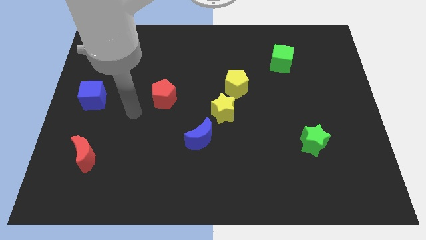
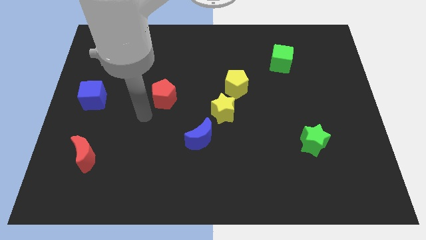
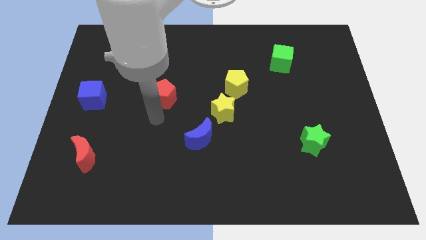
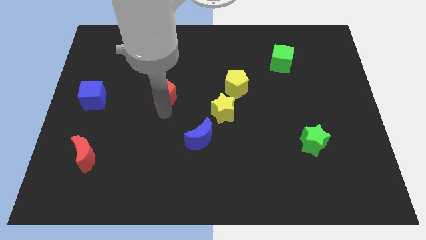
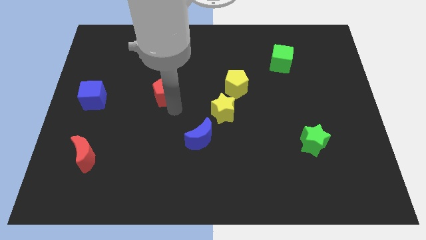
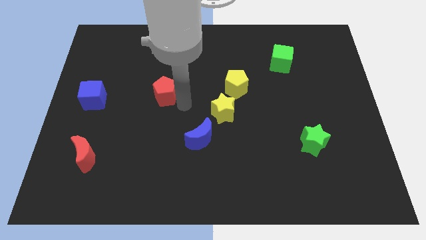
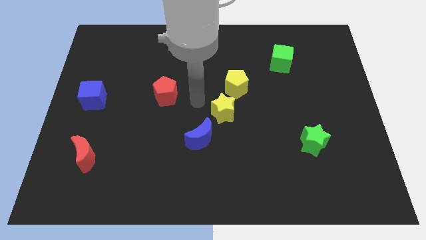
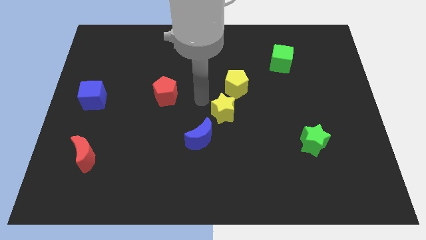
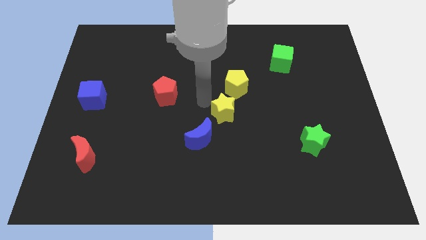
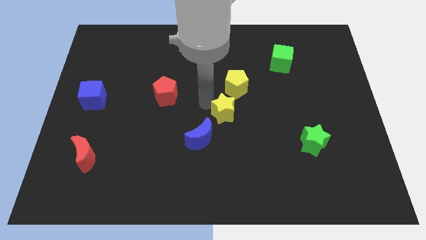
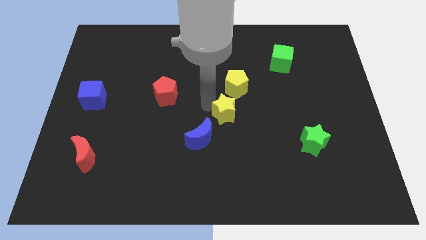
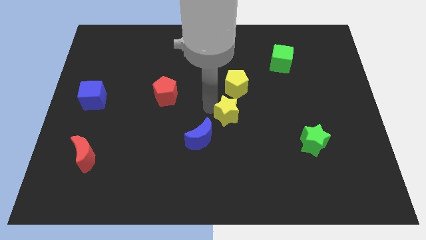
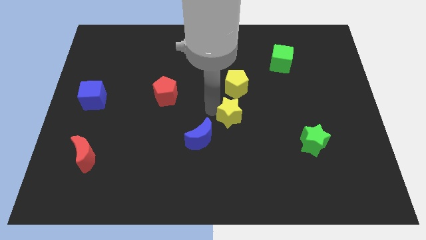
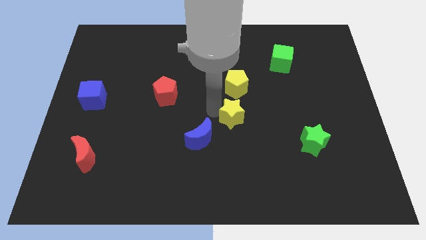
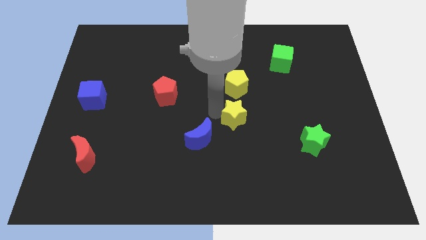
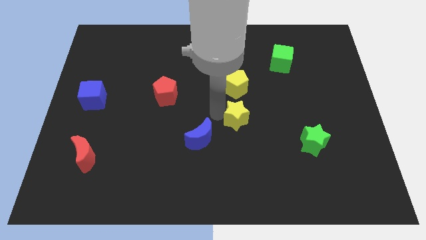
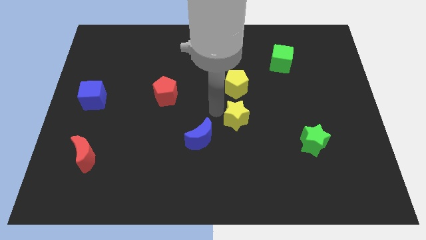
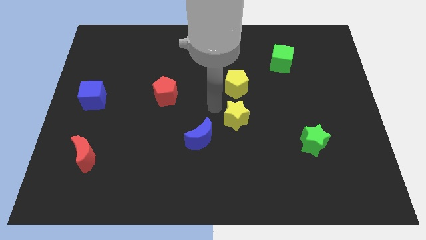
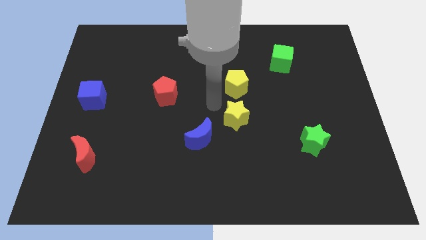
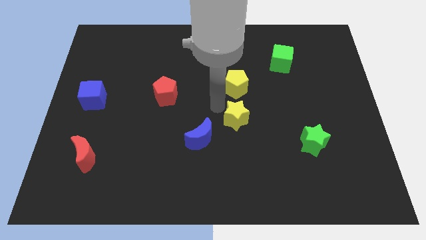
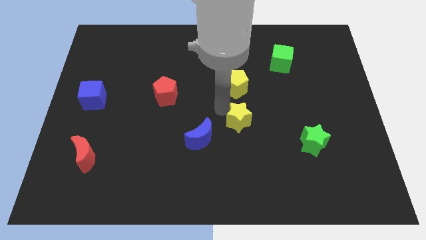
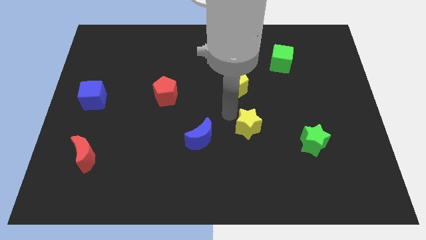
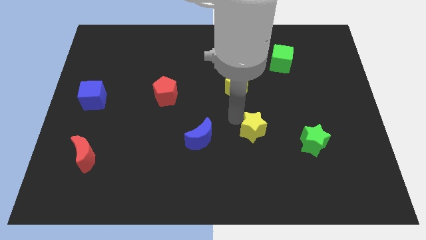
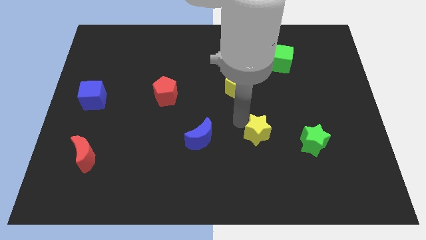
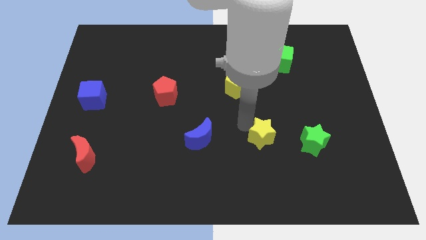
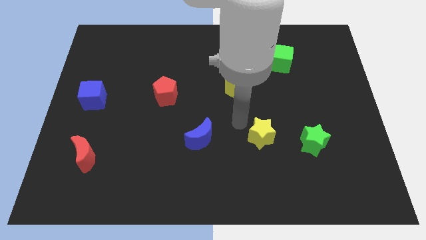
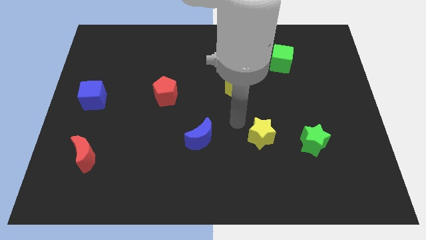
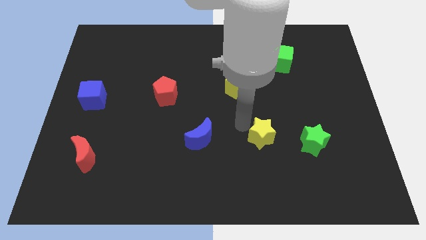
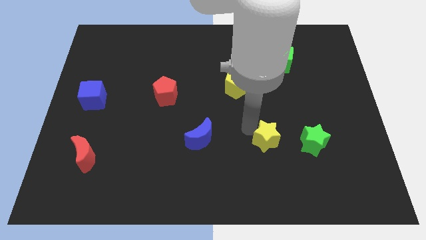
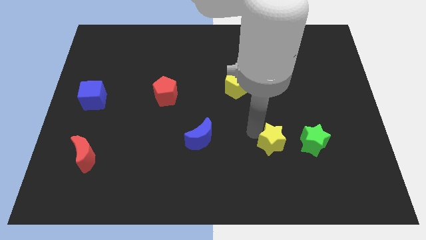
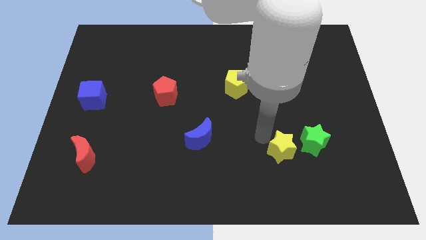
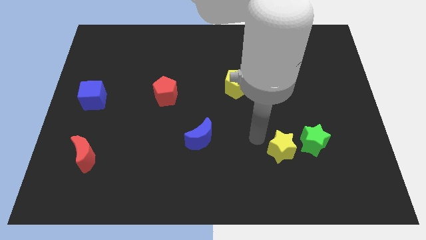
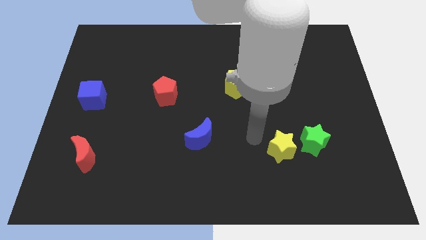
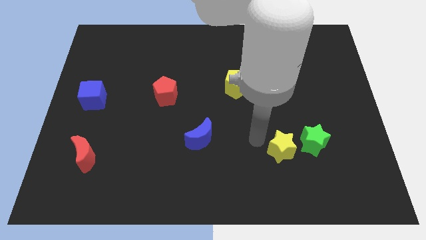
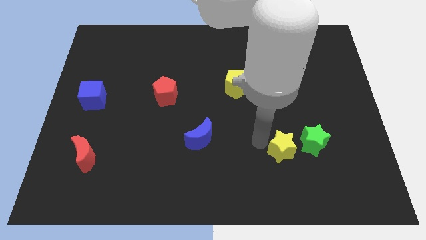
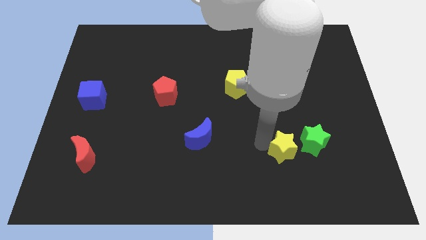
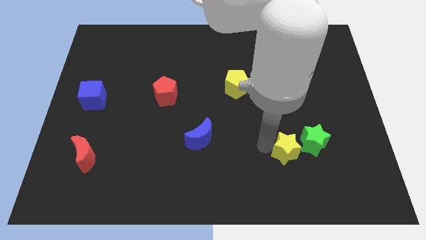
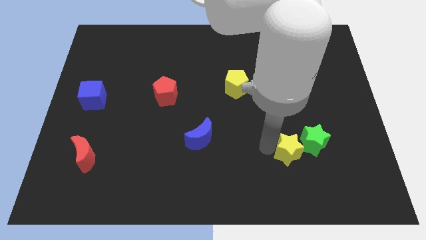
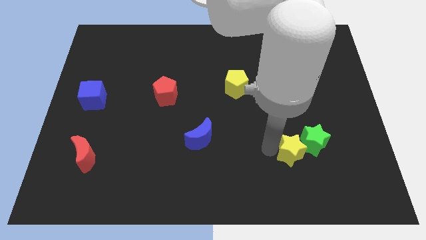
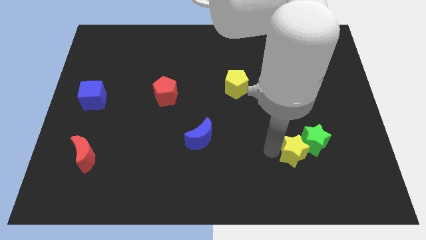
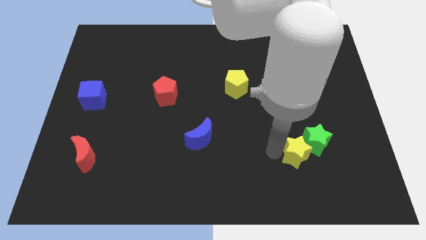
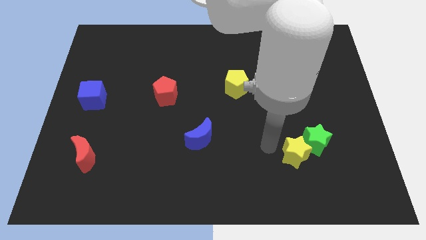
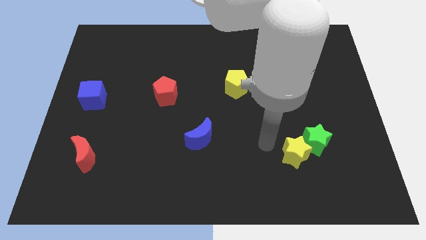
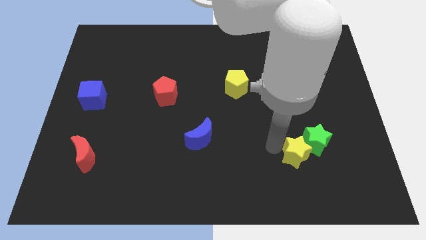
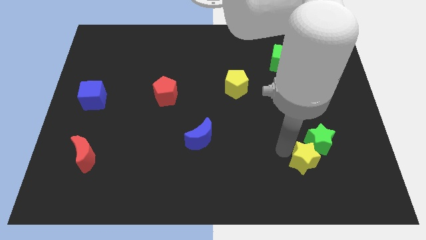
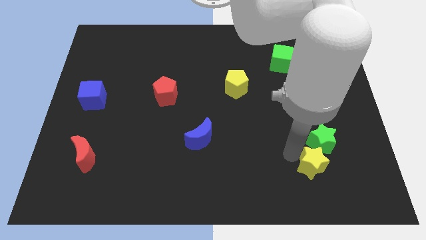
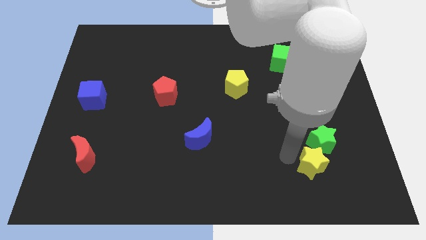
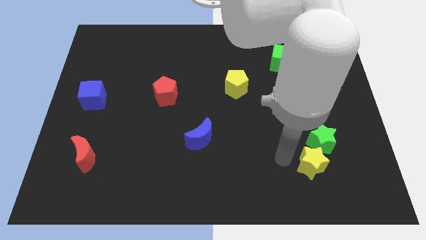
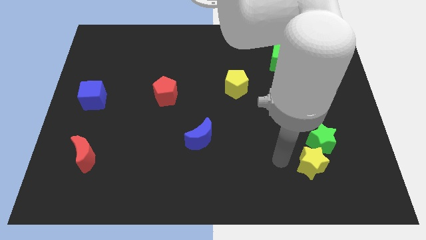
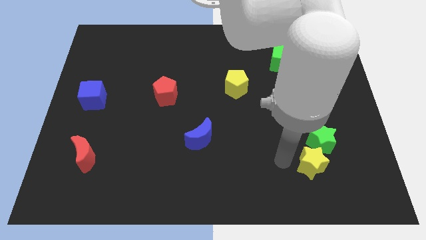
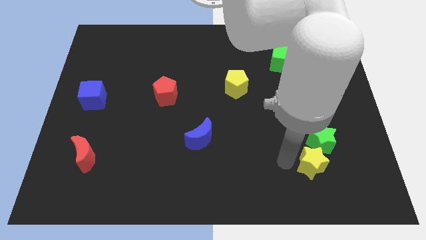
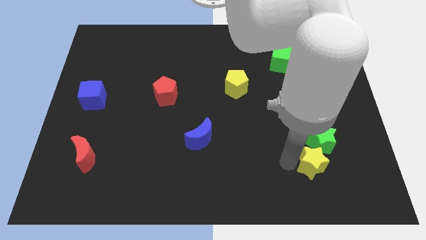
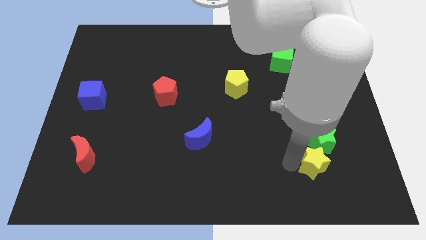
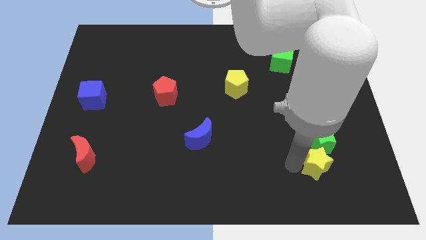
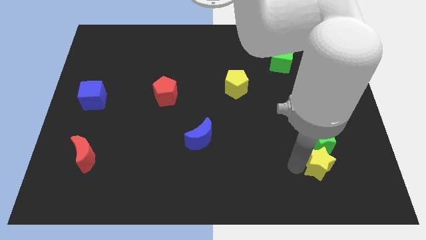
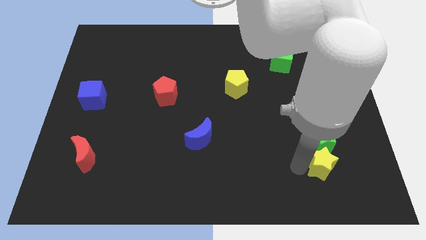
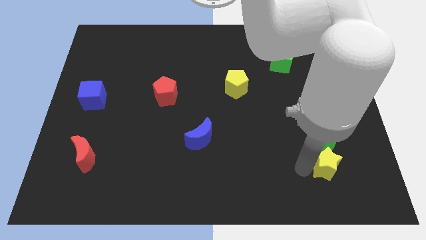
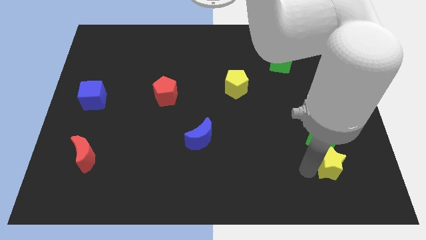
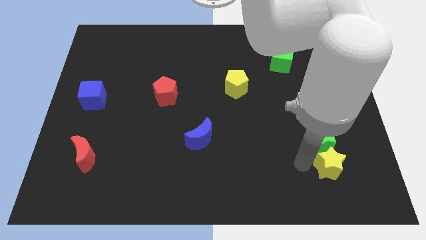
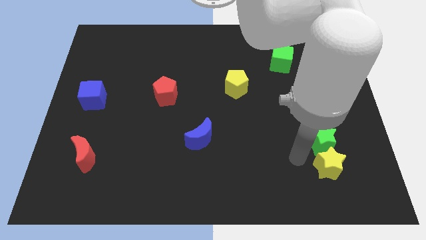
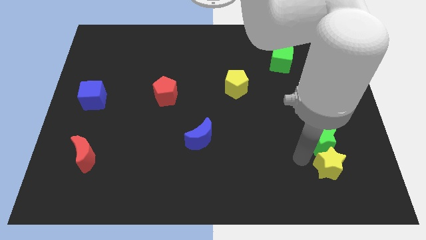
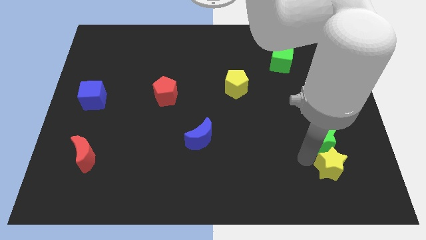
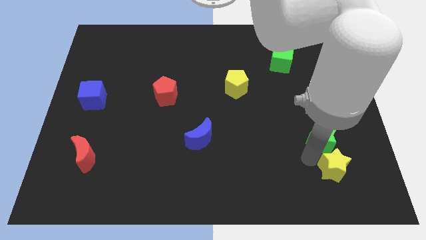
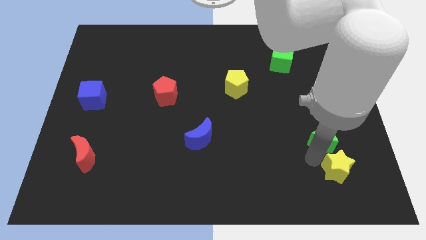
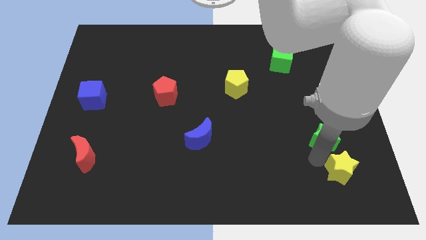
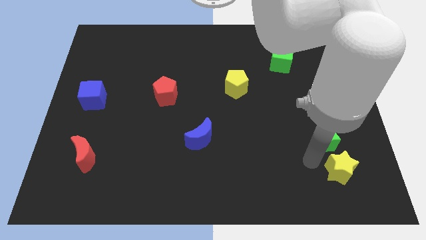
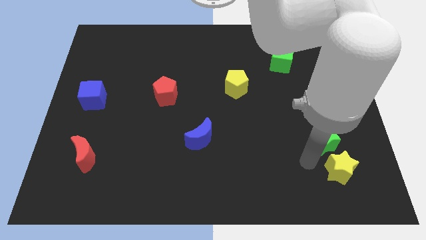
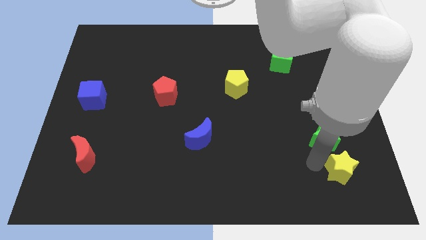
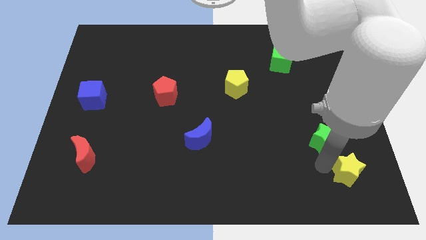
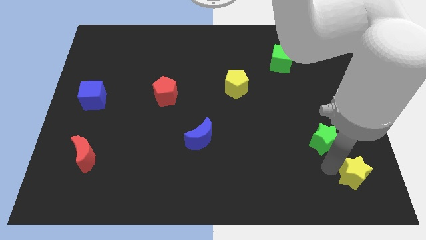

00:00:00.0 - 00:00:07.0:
push the yellow star to the lower right corner
